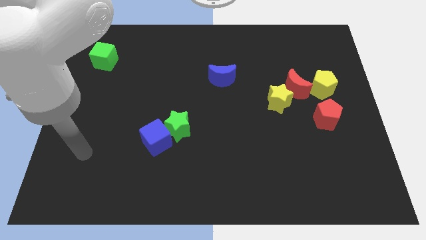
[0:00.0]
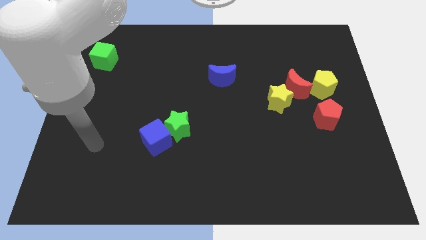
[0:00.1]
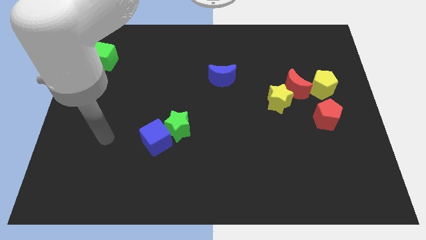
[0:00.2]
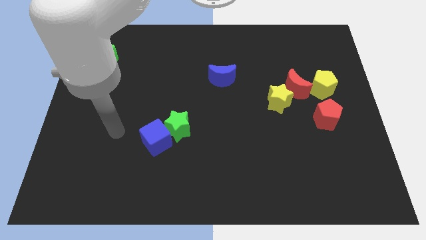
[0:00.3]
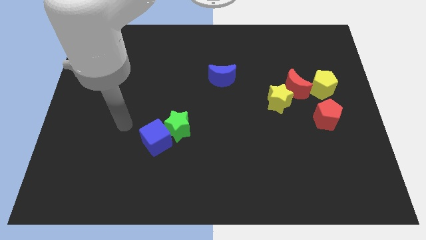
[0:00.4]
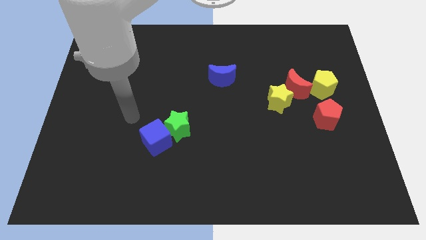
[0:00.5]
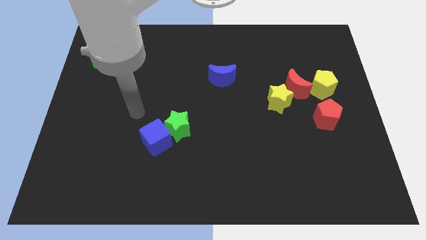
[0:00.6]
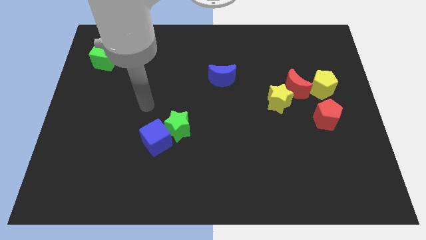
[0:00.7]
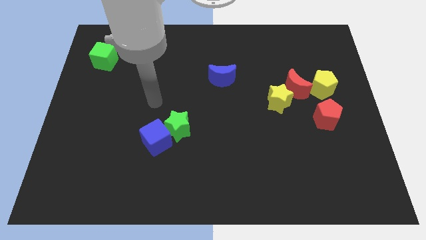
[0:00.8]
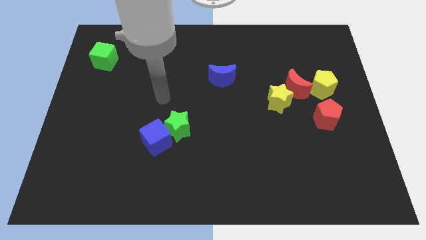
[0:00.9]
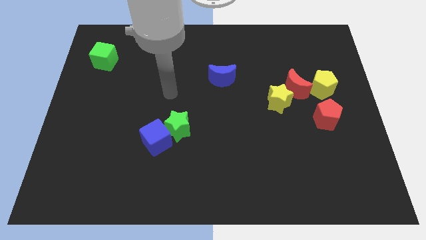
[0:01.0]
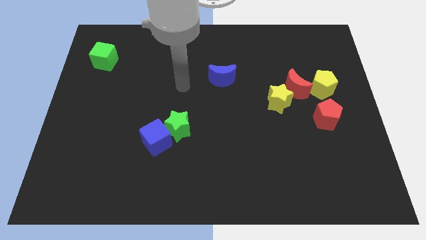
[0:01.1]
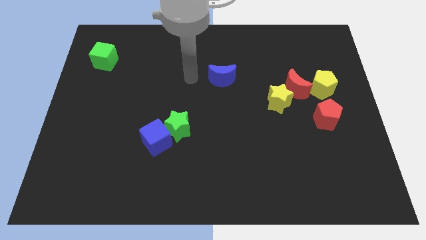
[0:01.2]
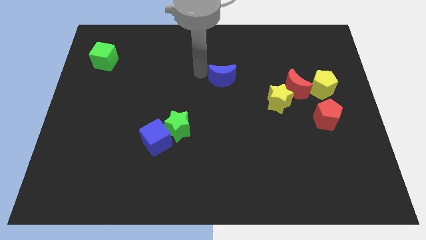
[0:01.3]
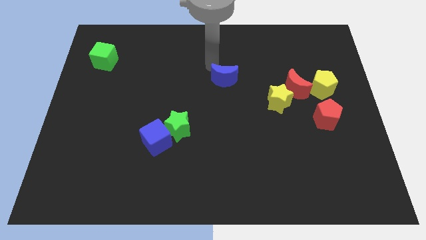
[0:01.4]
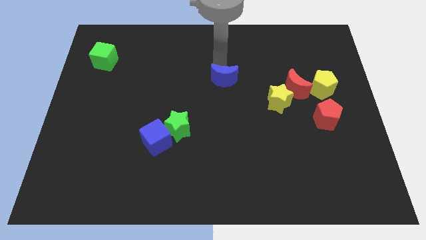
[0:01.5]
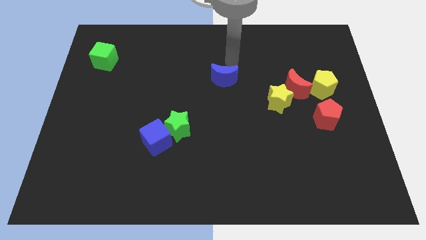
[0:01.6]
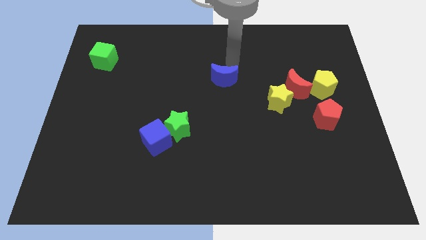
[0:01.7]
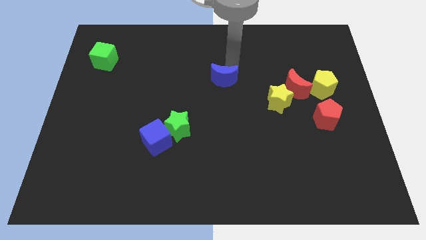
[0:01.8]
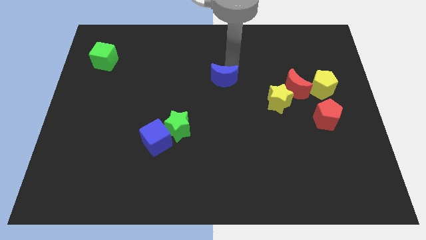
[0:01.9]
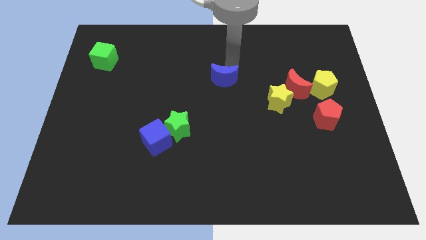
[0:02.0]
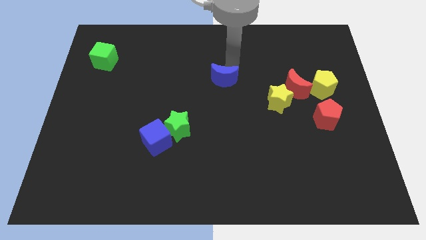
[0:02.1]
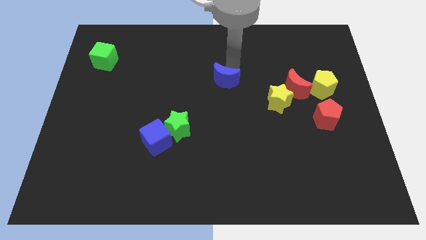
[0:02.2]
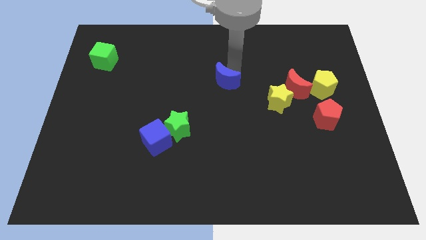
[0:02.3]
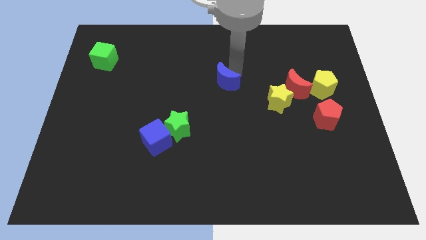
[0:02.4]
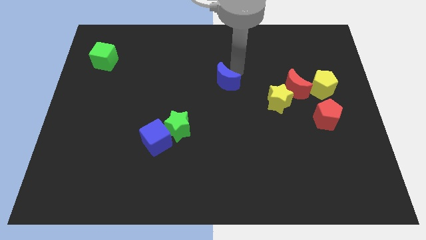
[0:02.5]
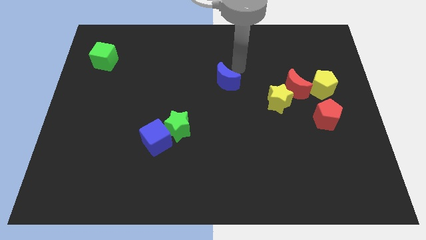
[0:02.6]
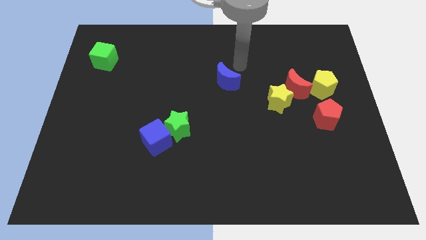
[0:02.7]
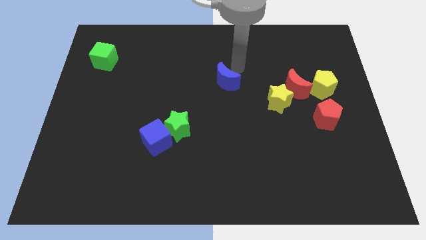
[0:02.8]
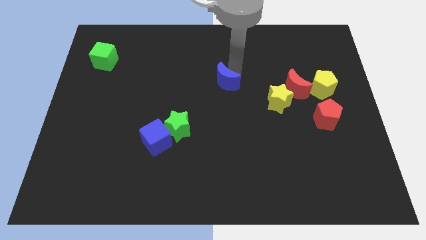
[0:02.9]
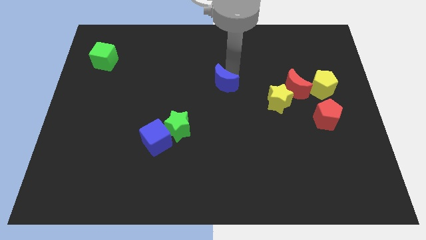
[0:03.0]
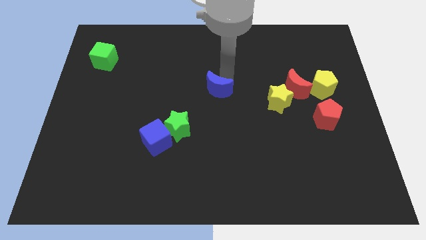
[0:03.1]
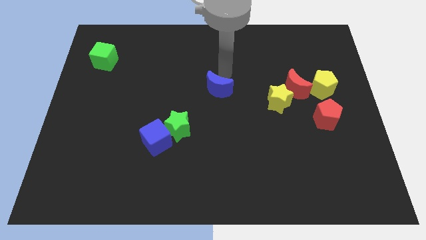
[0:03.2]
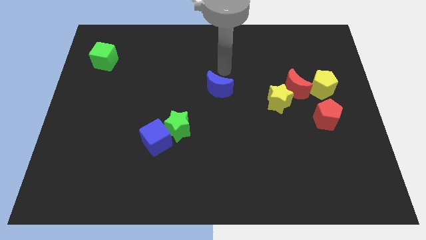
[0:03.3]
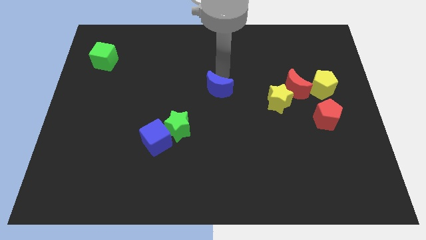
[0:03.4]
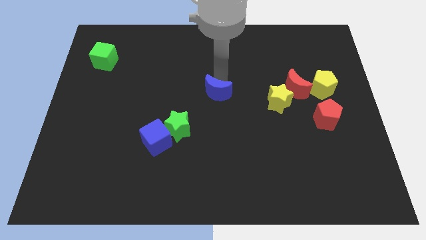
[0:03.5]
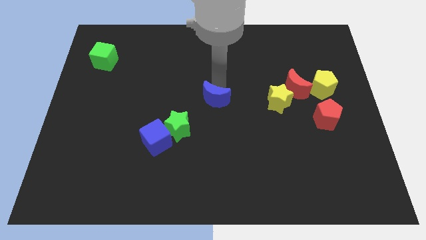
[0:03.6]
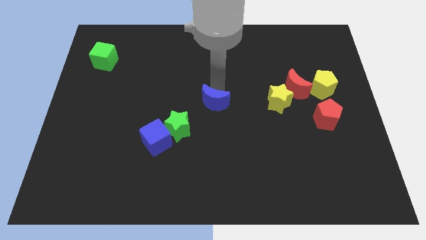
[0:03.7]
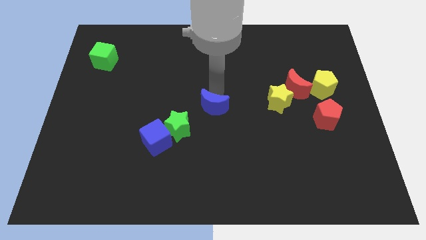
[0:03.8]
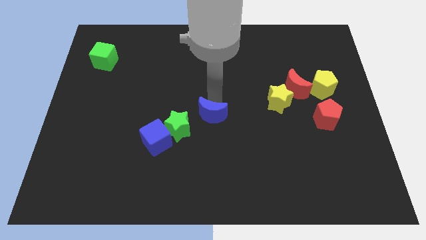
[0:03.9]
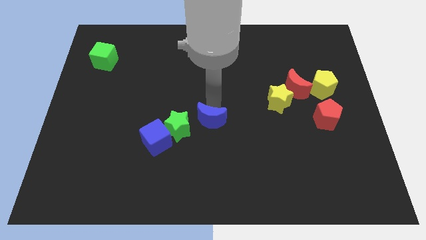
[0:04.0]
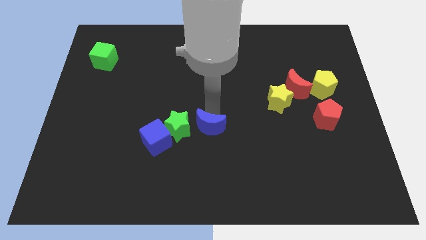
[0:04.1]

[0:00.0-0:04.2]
slide the blue moon just right of the blue cube

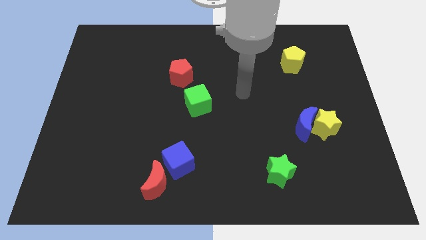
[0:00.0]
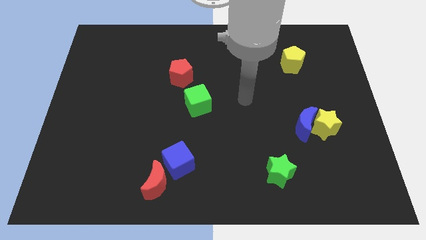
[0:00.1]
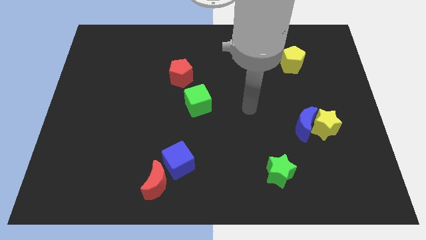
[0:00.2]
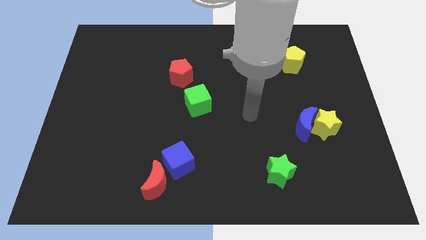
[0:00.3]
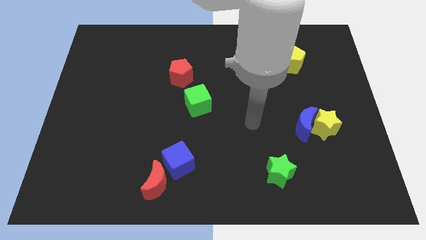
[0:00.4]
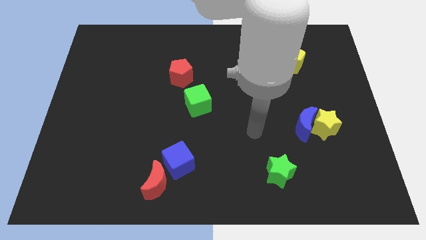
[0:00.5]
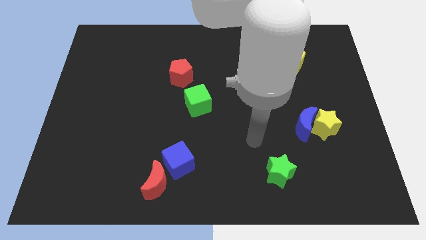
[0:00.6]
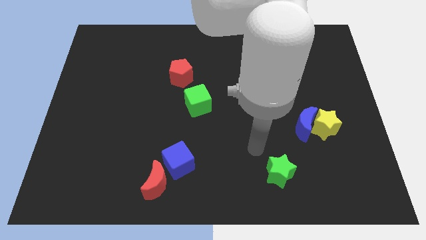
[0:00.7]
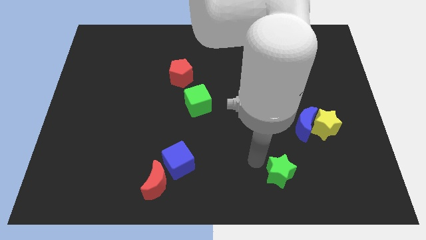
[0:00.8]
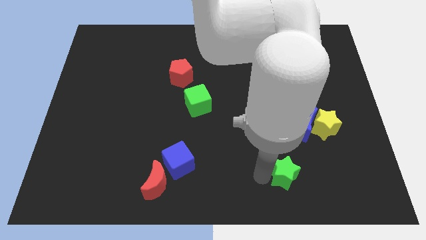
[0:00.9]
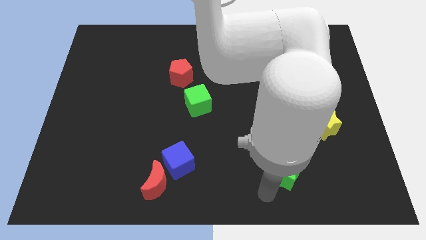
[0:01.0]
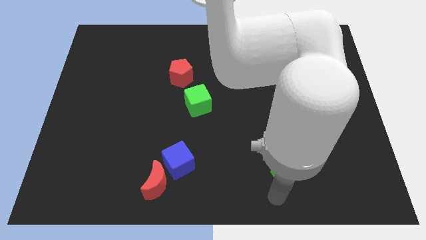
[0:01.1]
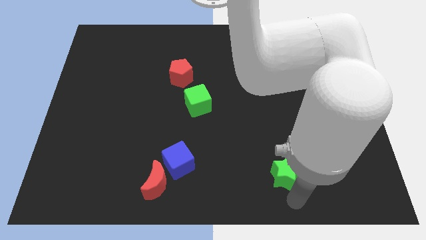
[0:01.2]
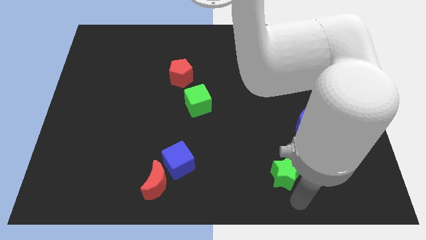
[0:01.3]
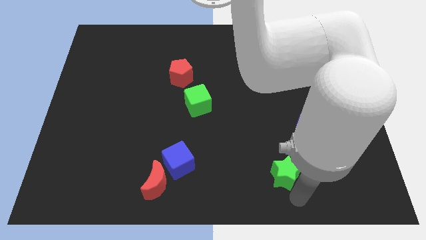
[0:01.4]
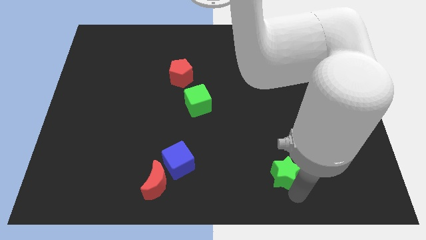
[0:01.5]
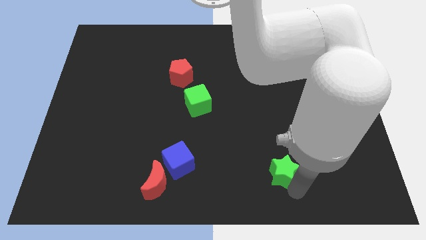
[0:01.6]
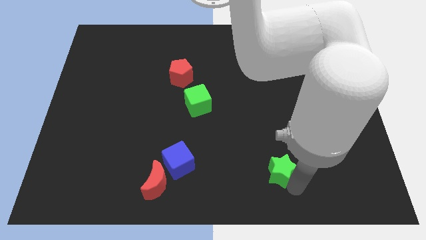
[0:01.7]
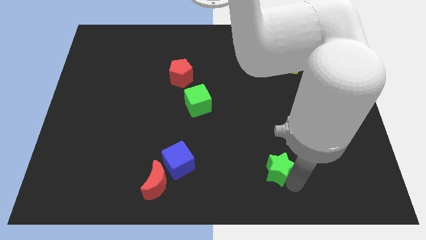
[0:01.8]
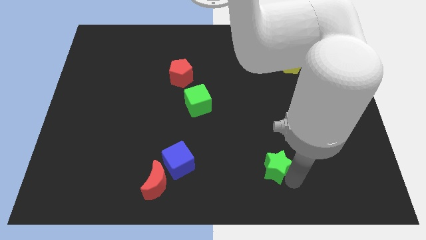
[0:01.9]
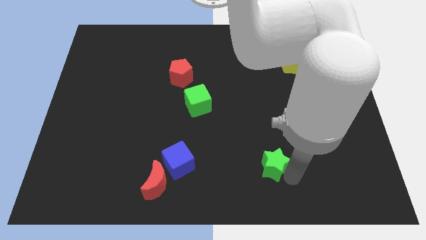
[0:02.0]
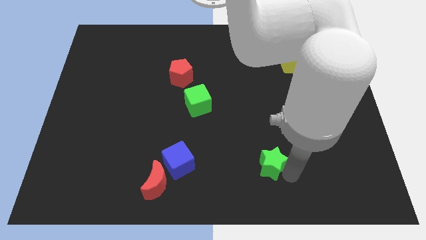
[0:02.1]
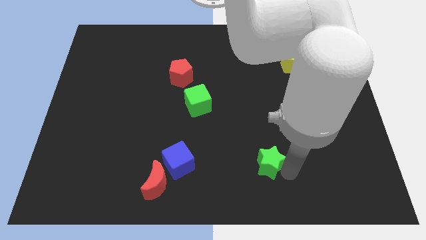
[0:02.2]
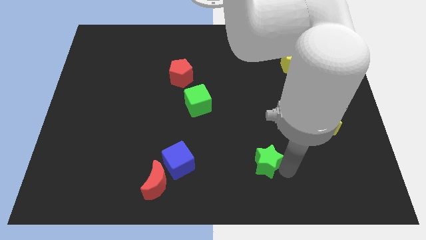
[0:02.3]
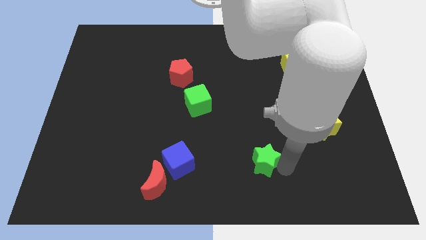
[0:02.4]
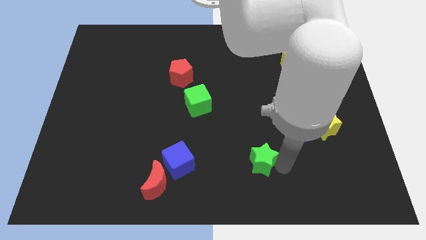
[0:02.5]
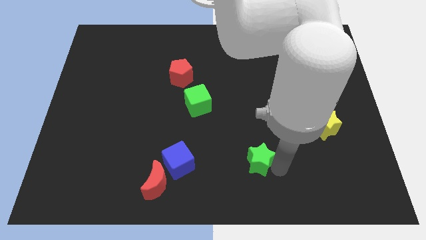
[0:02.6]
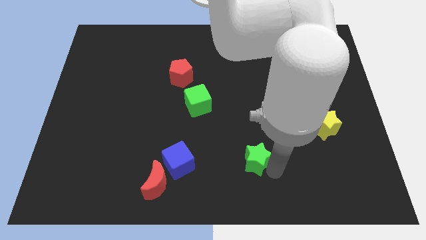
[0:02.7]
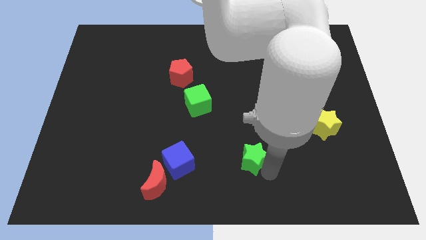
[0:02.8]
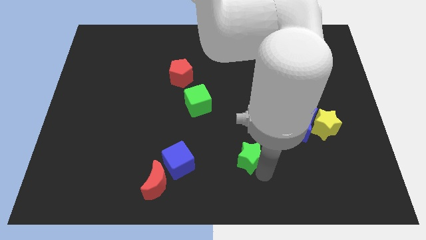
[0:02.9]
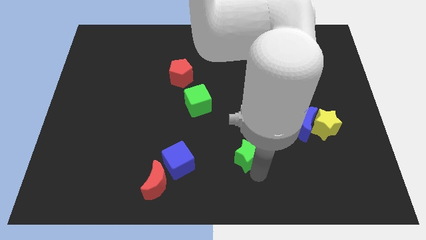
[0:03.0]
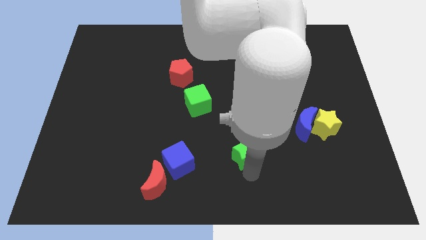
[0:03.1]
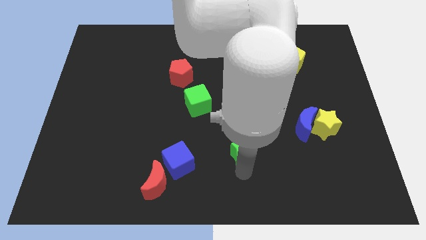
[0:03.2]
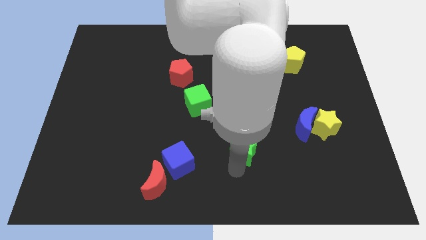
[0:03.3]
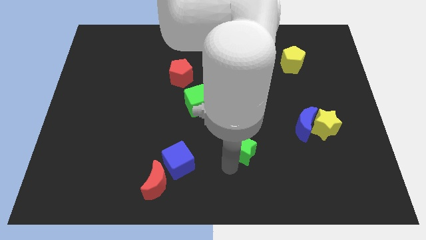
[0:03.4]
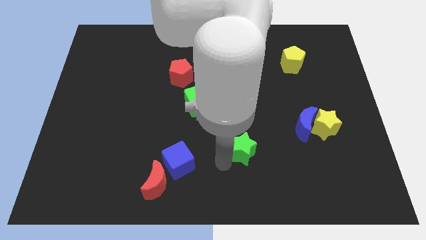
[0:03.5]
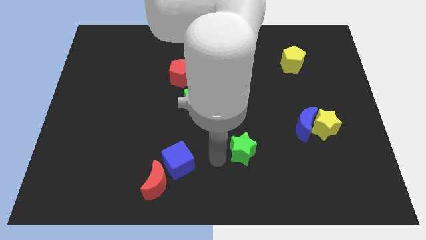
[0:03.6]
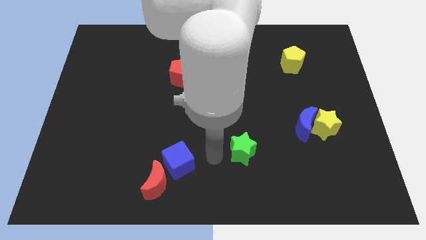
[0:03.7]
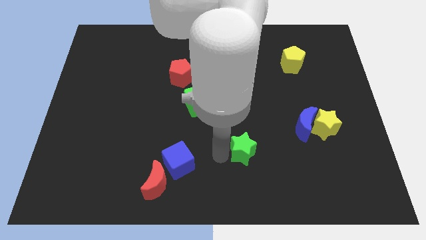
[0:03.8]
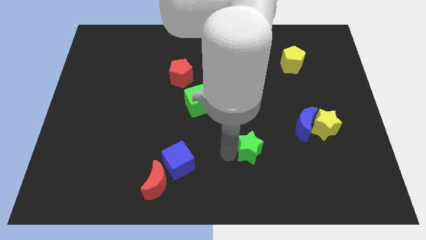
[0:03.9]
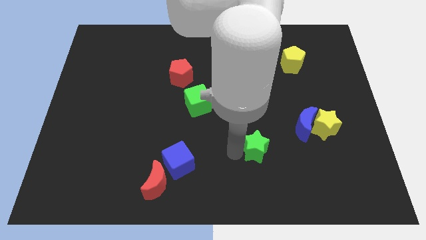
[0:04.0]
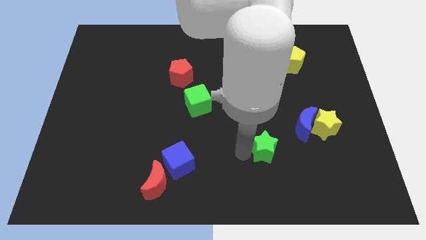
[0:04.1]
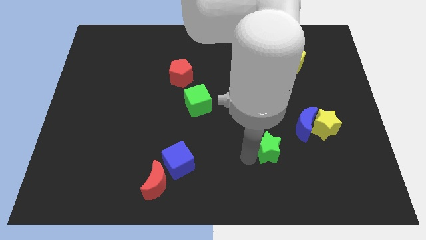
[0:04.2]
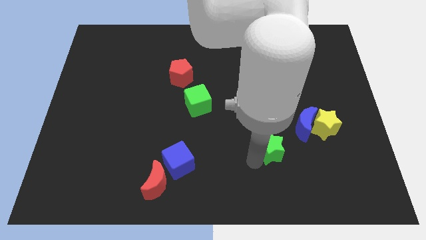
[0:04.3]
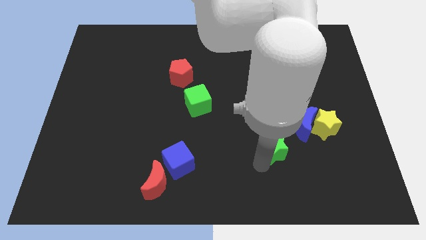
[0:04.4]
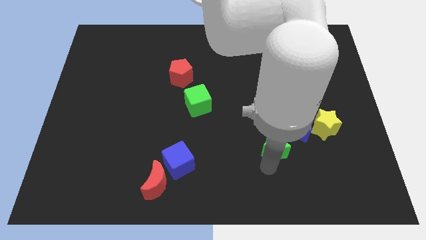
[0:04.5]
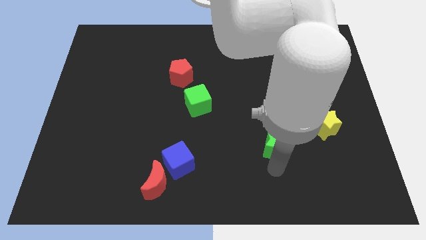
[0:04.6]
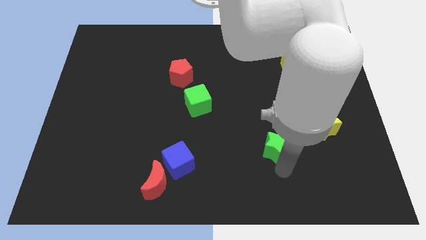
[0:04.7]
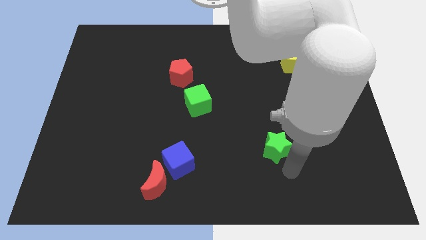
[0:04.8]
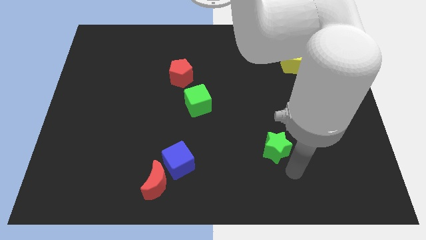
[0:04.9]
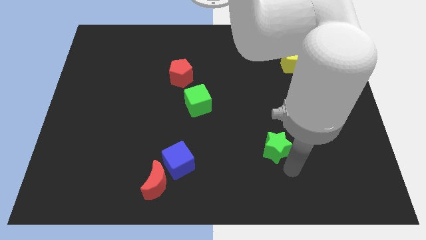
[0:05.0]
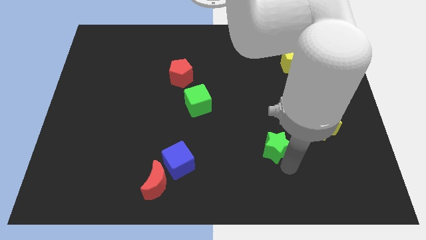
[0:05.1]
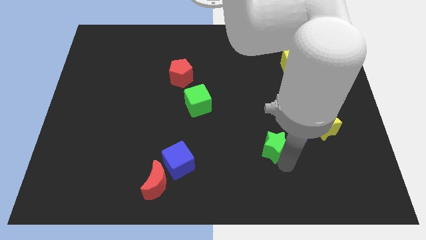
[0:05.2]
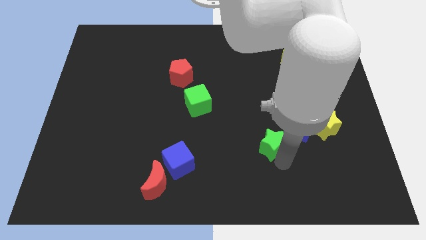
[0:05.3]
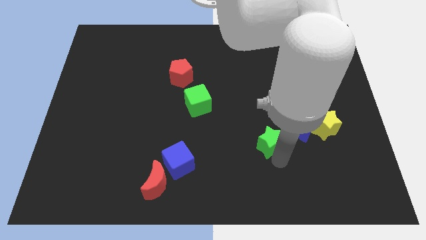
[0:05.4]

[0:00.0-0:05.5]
move the green star left of the blue moon
